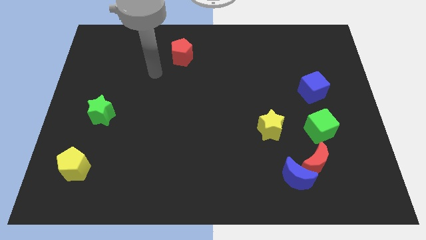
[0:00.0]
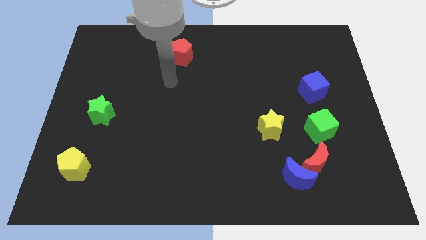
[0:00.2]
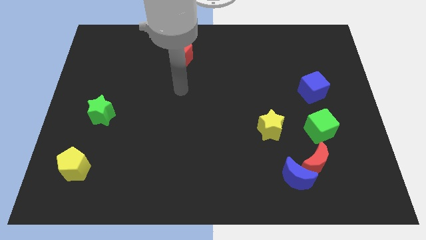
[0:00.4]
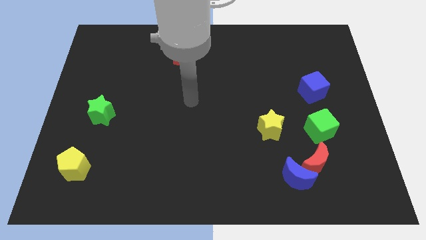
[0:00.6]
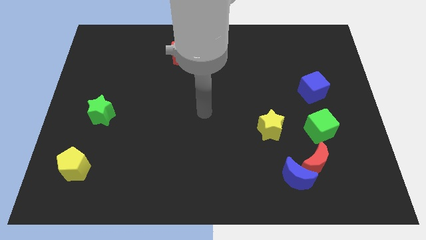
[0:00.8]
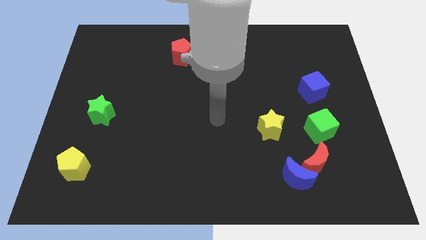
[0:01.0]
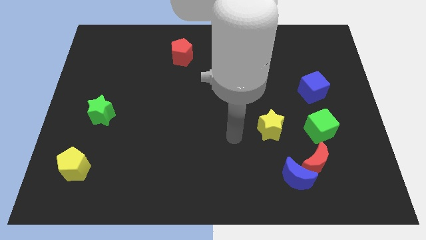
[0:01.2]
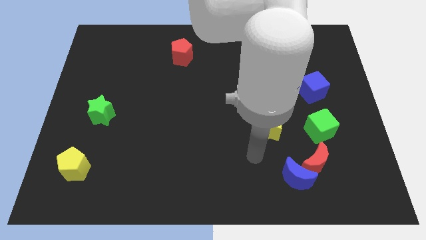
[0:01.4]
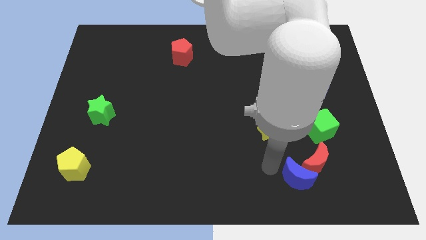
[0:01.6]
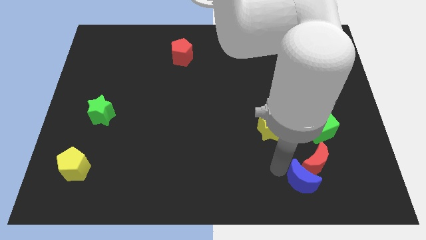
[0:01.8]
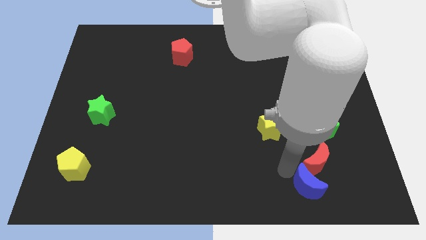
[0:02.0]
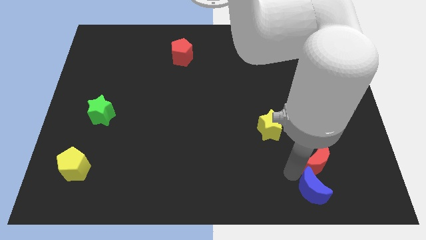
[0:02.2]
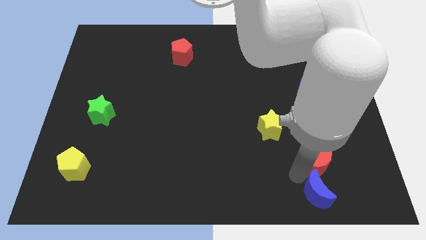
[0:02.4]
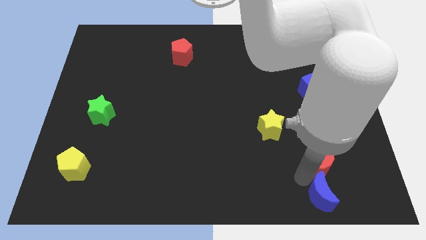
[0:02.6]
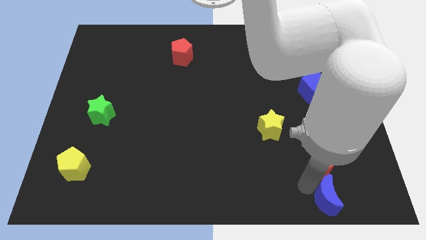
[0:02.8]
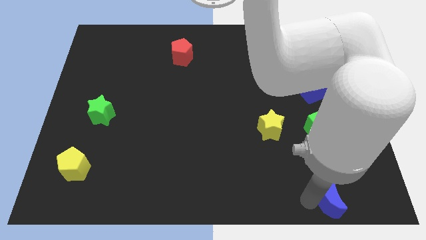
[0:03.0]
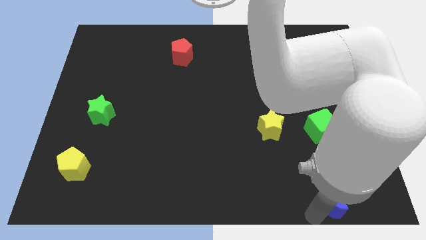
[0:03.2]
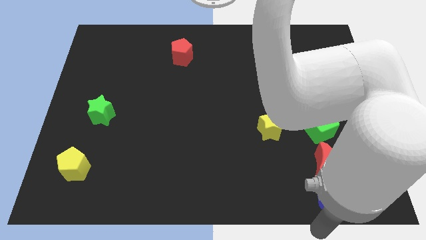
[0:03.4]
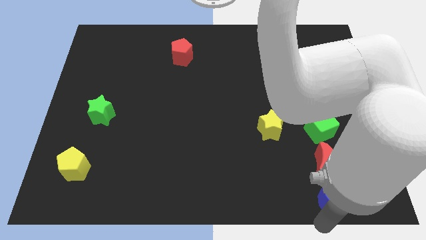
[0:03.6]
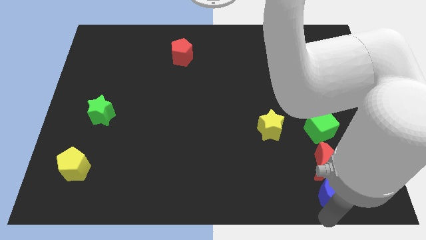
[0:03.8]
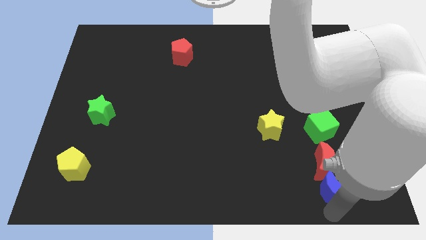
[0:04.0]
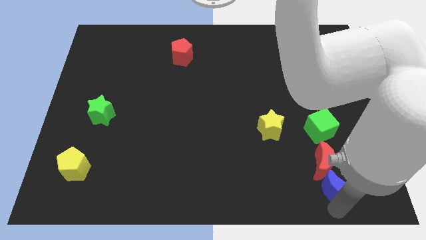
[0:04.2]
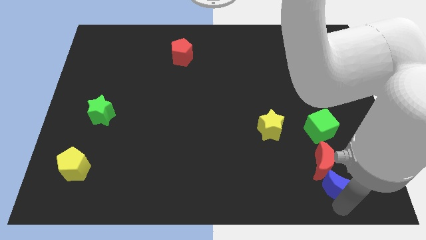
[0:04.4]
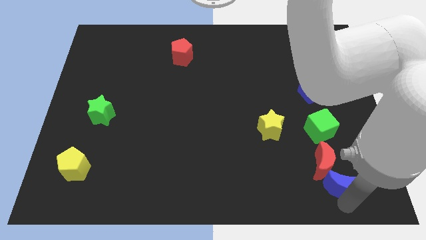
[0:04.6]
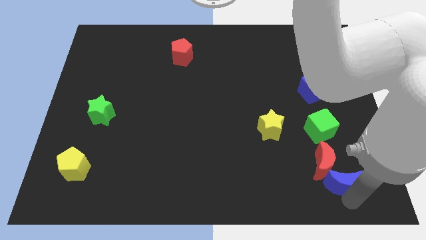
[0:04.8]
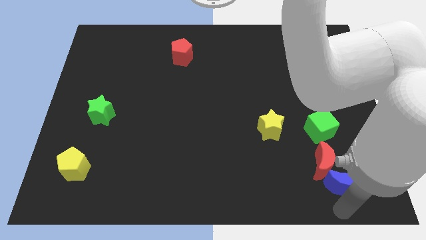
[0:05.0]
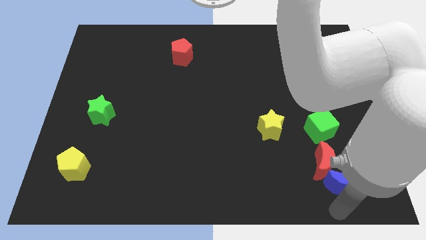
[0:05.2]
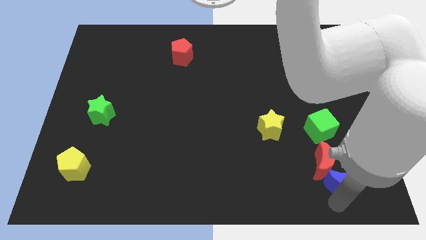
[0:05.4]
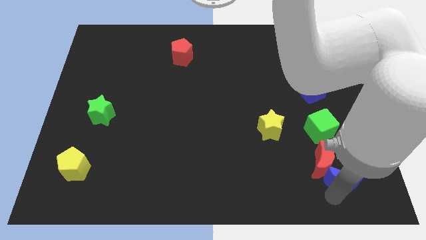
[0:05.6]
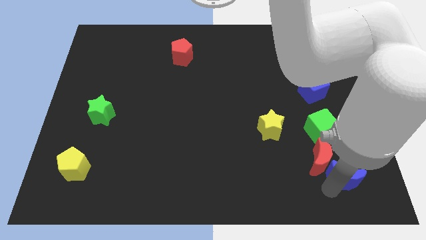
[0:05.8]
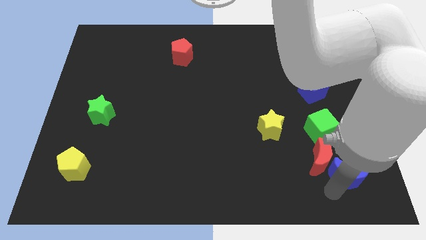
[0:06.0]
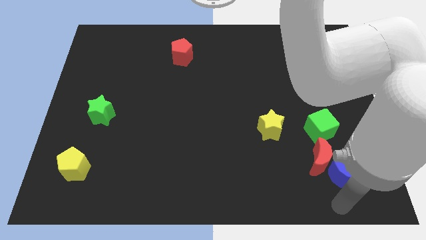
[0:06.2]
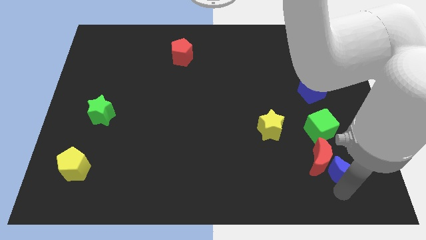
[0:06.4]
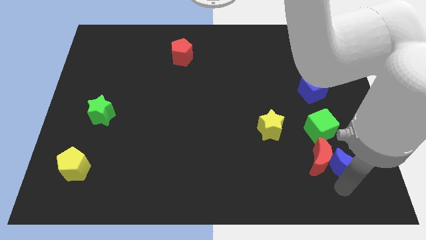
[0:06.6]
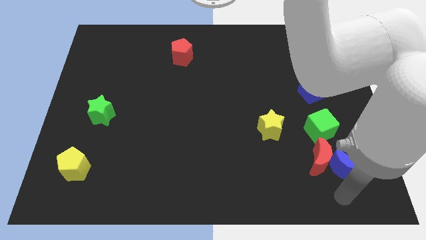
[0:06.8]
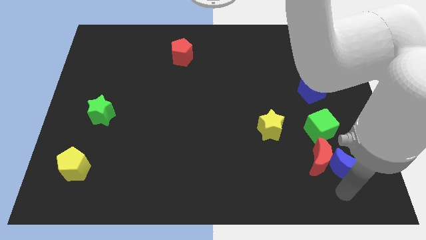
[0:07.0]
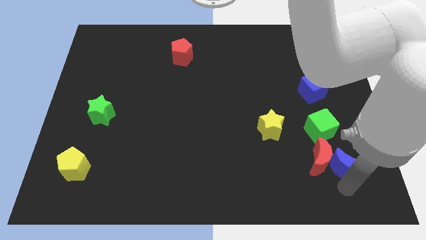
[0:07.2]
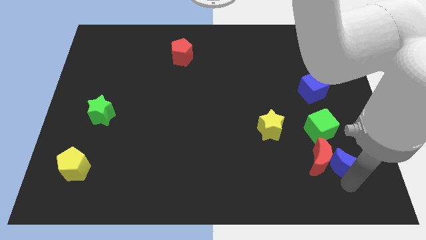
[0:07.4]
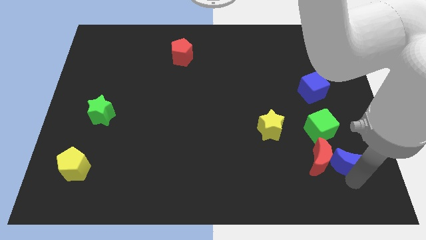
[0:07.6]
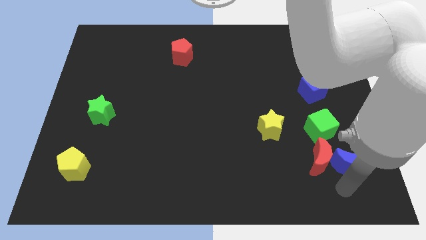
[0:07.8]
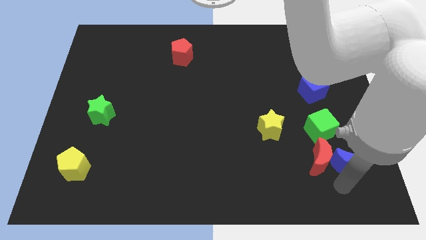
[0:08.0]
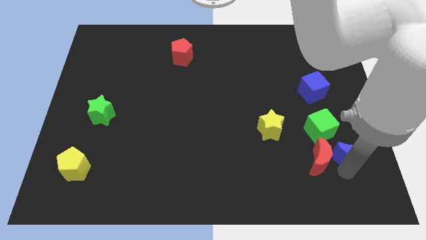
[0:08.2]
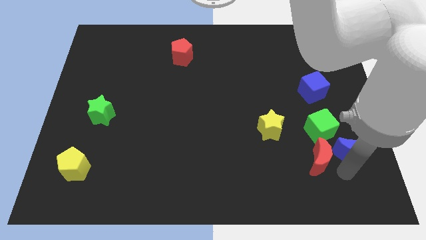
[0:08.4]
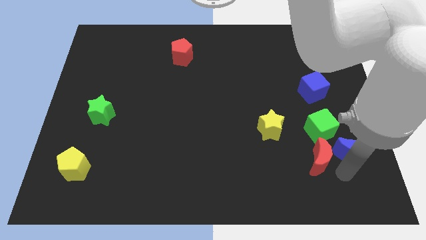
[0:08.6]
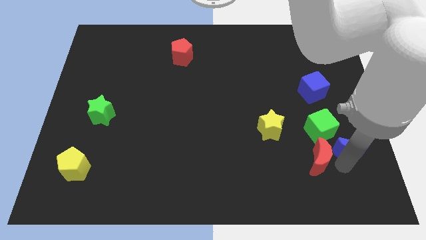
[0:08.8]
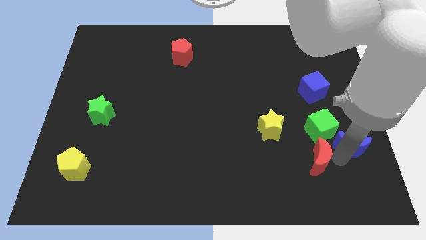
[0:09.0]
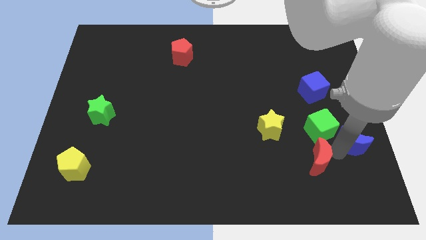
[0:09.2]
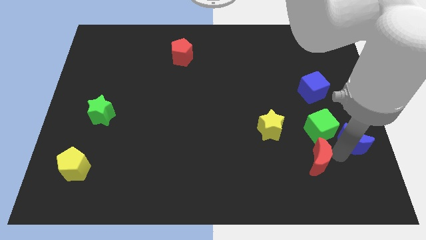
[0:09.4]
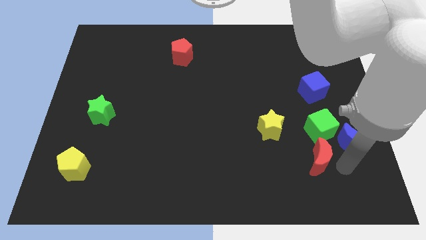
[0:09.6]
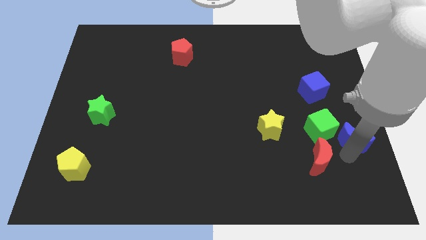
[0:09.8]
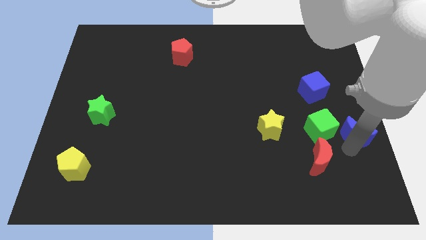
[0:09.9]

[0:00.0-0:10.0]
slide the blue moon to the right side

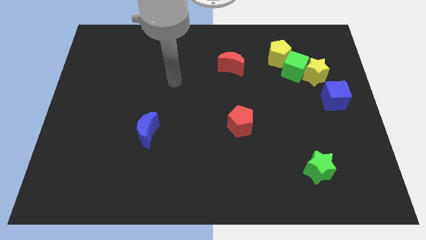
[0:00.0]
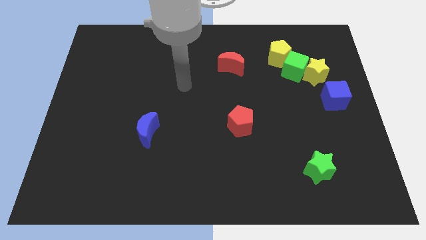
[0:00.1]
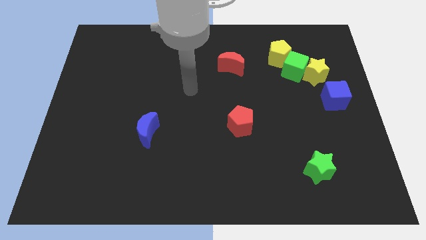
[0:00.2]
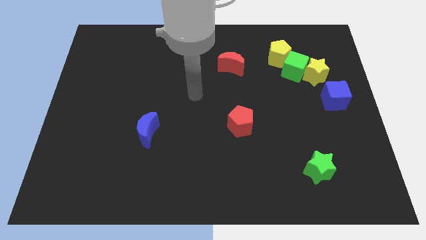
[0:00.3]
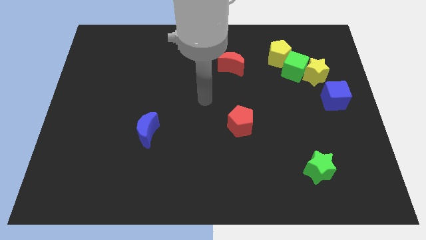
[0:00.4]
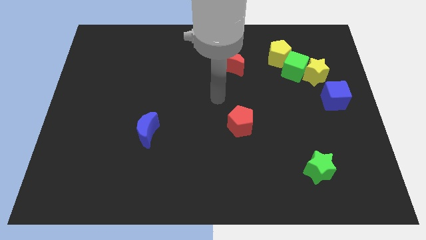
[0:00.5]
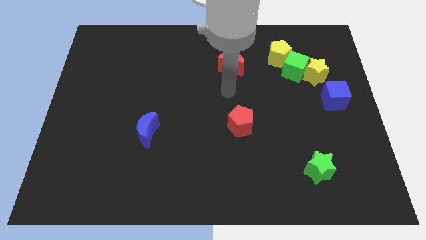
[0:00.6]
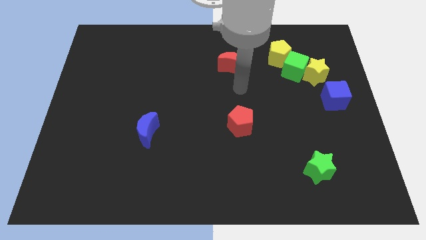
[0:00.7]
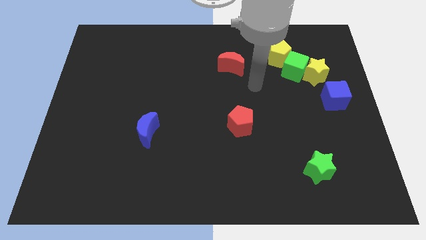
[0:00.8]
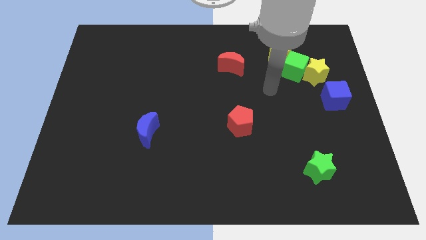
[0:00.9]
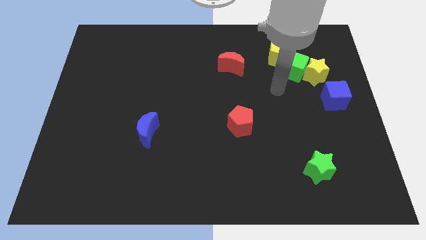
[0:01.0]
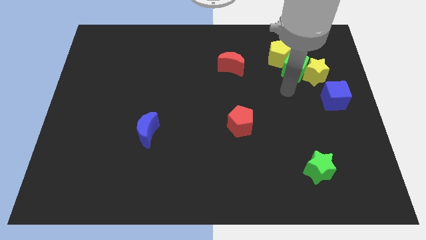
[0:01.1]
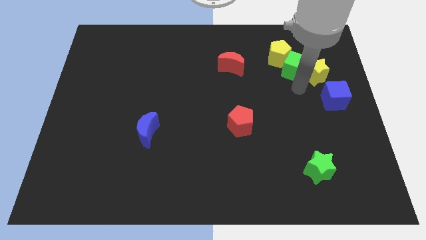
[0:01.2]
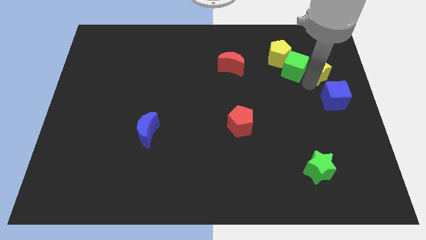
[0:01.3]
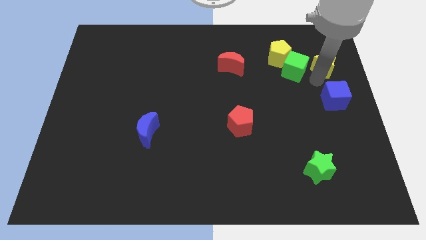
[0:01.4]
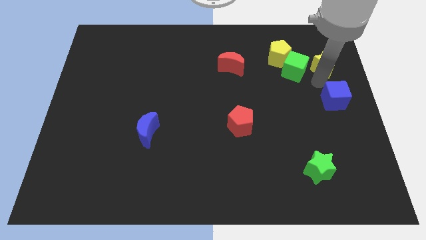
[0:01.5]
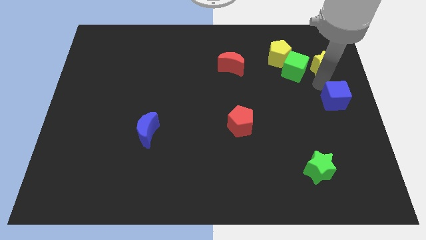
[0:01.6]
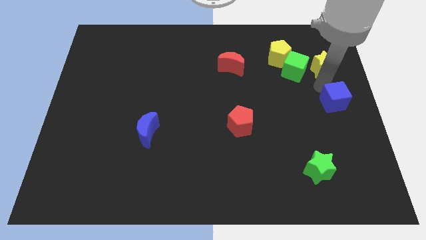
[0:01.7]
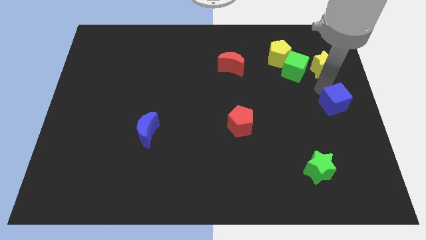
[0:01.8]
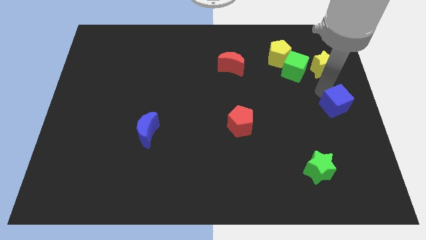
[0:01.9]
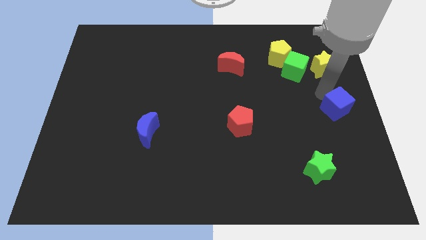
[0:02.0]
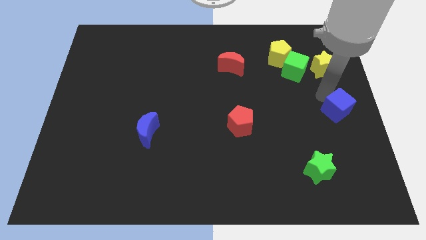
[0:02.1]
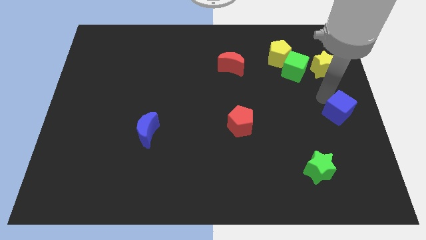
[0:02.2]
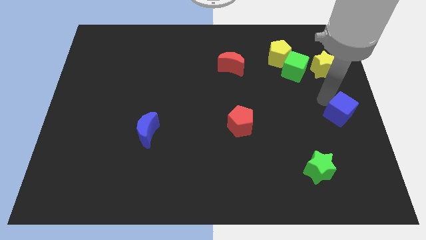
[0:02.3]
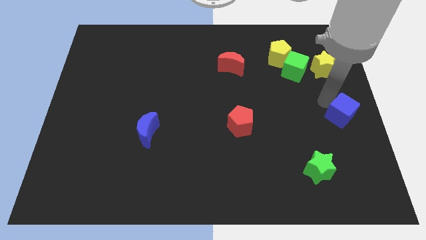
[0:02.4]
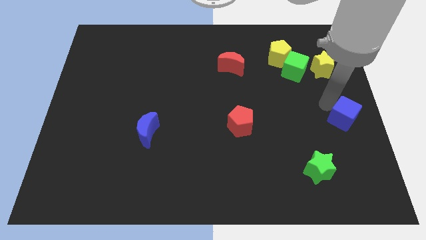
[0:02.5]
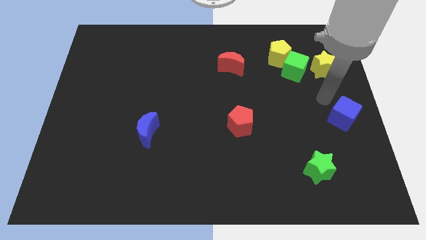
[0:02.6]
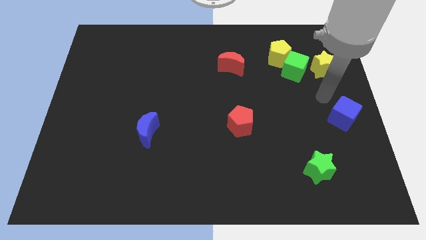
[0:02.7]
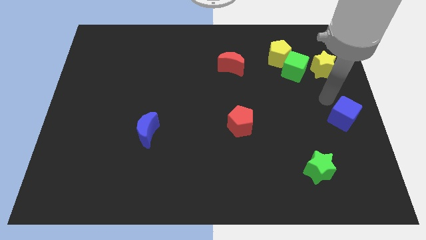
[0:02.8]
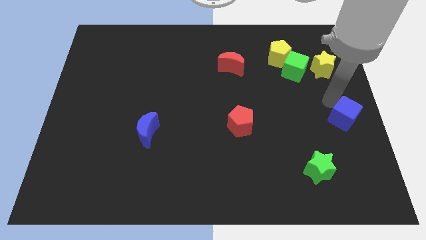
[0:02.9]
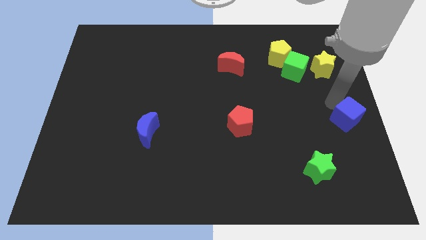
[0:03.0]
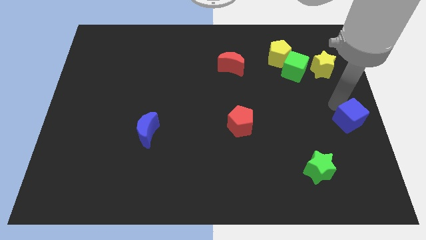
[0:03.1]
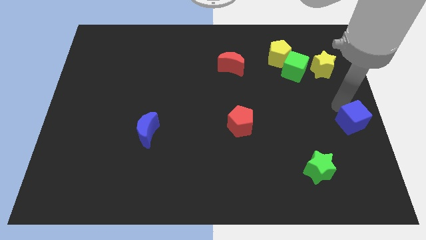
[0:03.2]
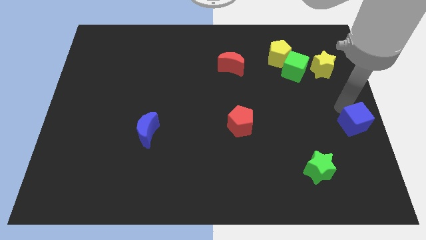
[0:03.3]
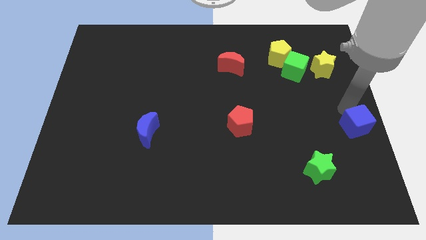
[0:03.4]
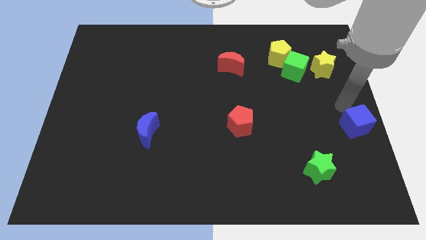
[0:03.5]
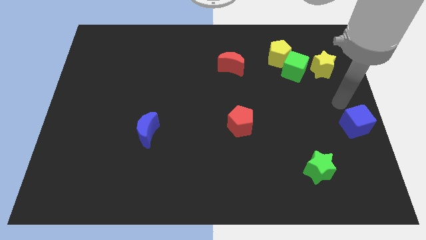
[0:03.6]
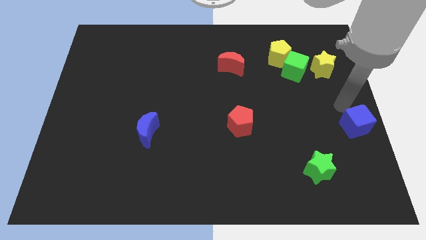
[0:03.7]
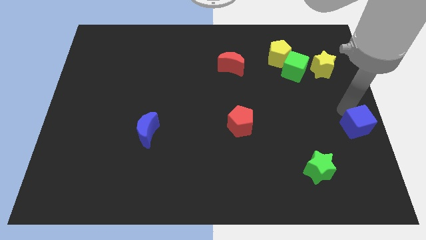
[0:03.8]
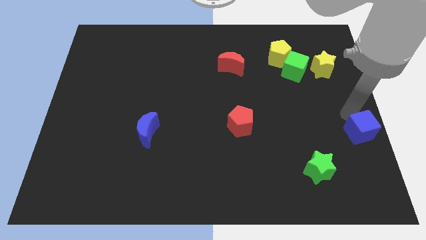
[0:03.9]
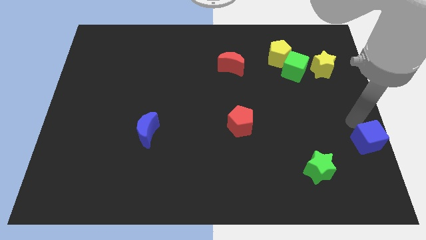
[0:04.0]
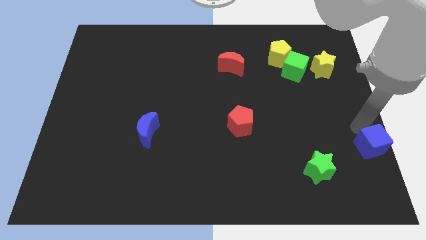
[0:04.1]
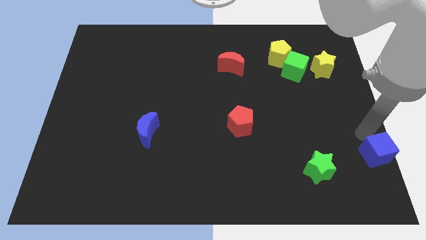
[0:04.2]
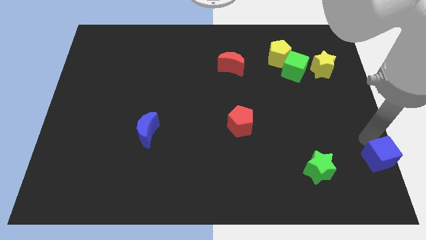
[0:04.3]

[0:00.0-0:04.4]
put the blue cube to the bottom right corner
